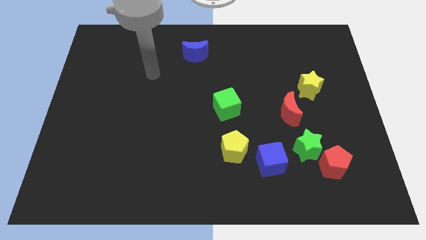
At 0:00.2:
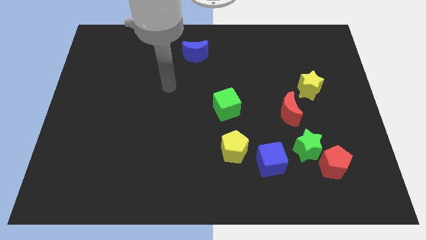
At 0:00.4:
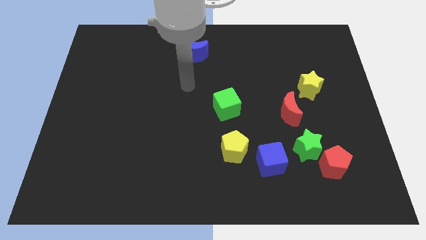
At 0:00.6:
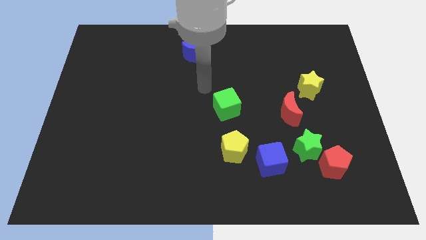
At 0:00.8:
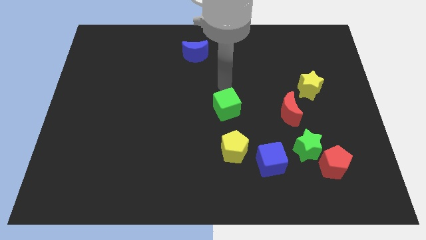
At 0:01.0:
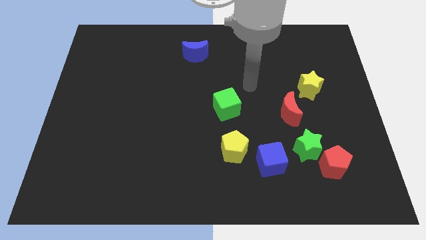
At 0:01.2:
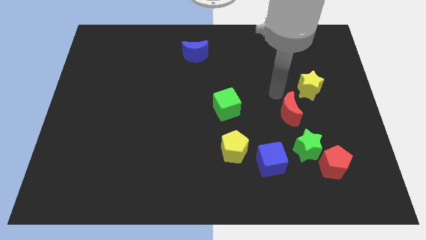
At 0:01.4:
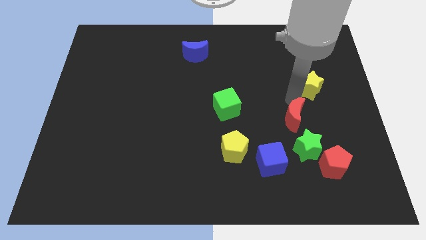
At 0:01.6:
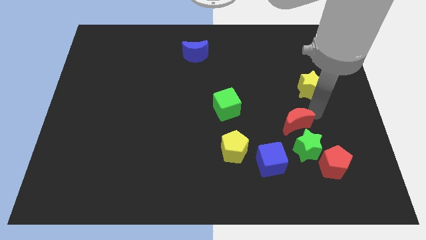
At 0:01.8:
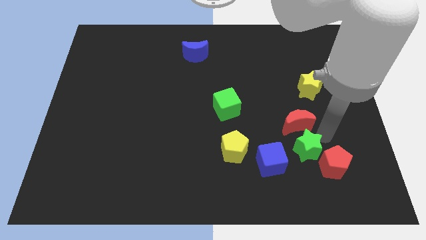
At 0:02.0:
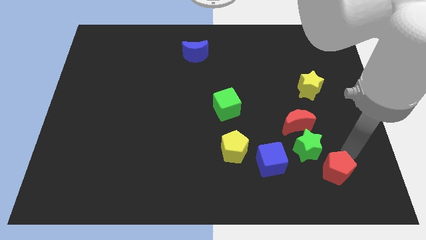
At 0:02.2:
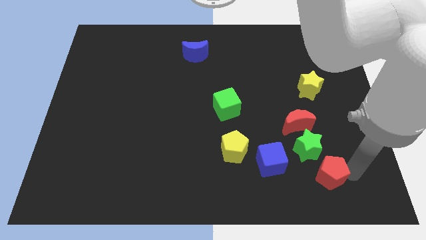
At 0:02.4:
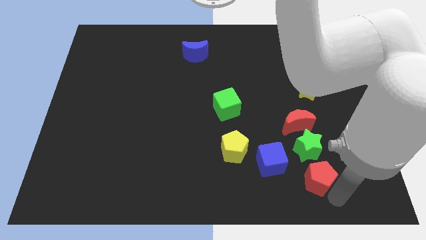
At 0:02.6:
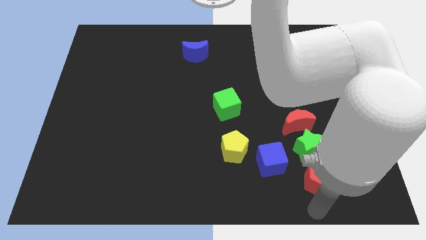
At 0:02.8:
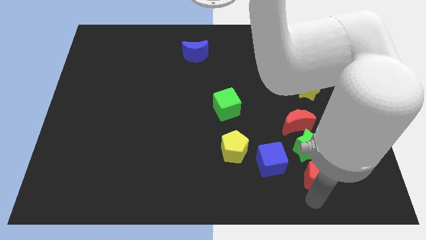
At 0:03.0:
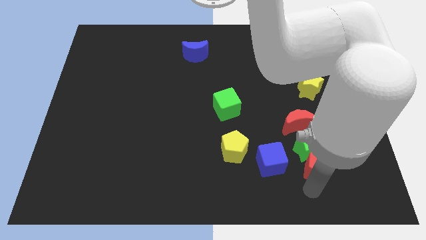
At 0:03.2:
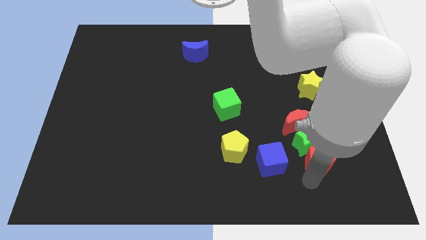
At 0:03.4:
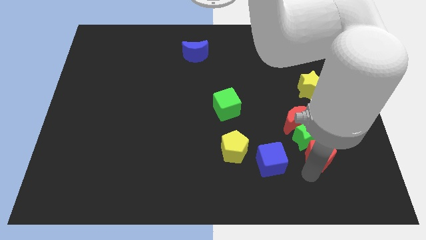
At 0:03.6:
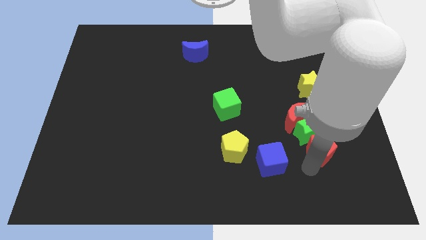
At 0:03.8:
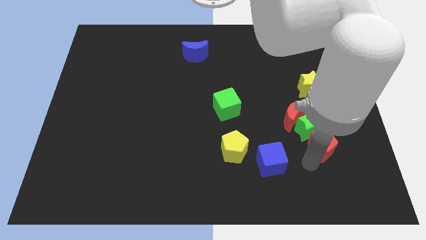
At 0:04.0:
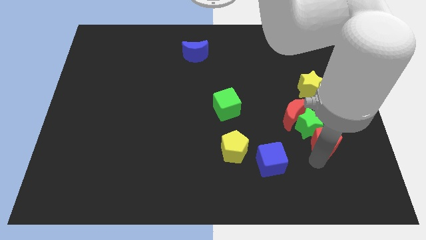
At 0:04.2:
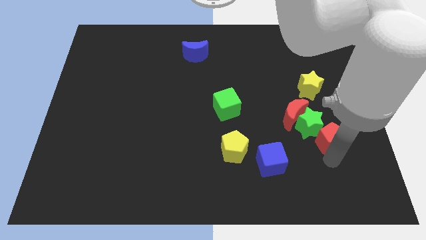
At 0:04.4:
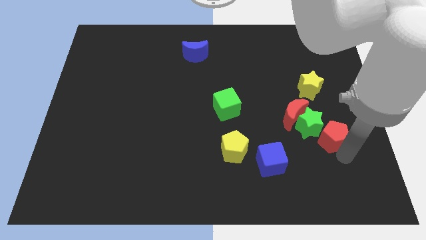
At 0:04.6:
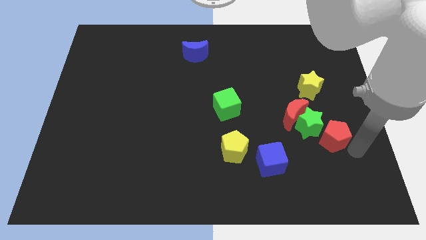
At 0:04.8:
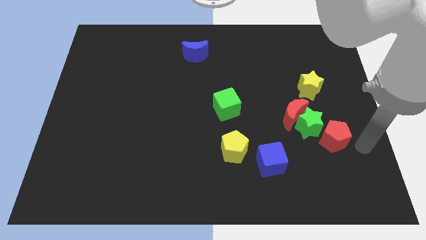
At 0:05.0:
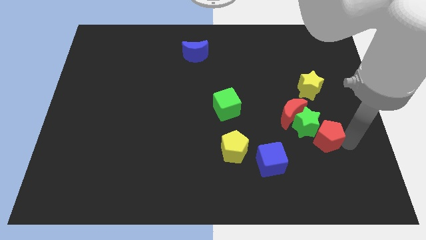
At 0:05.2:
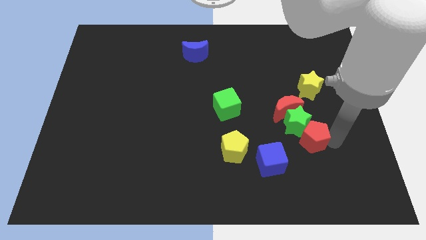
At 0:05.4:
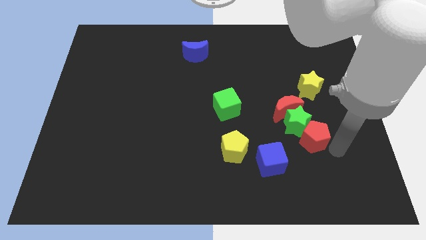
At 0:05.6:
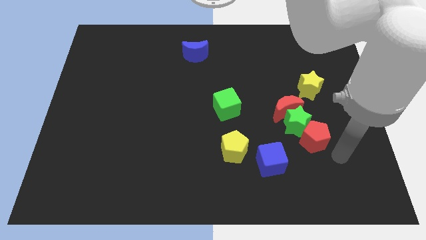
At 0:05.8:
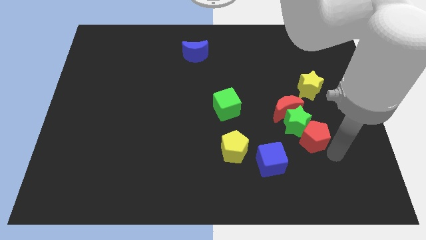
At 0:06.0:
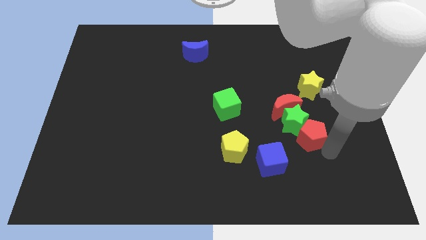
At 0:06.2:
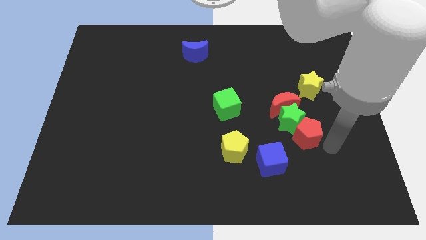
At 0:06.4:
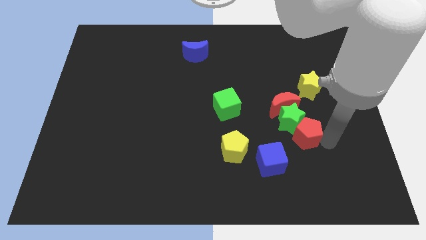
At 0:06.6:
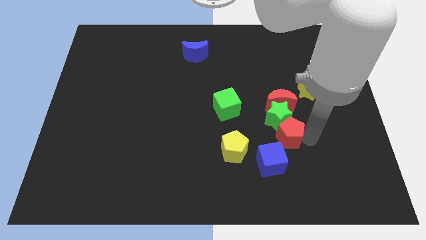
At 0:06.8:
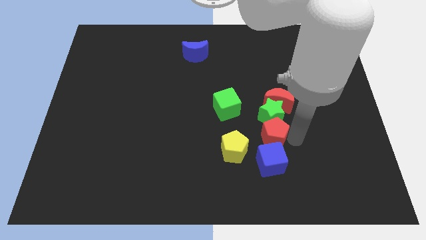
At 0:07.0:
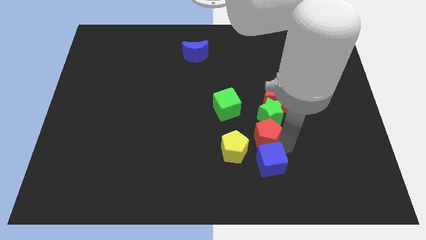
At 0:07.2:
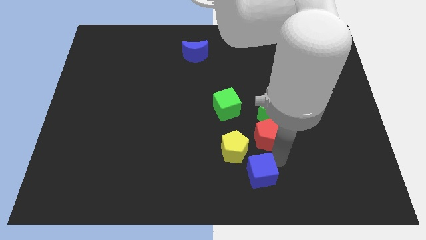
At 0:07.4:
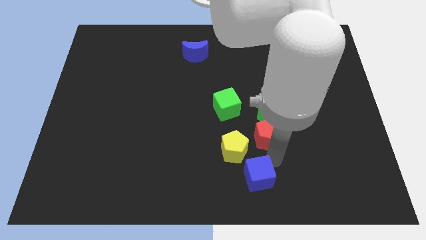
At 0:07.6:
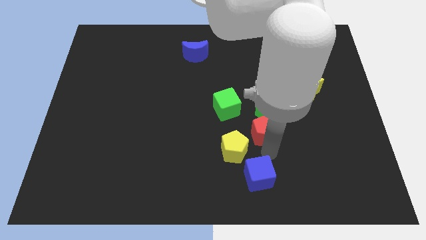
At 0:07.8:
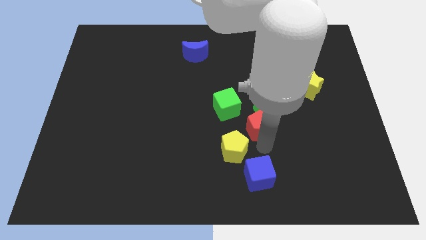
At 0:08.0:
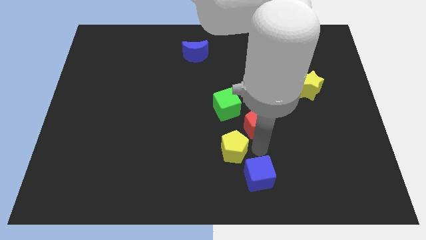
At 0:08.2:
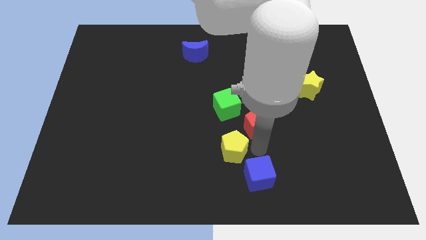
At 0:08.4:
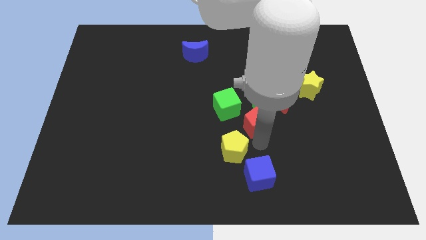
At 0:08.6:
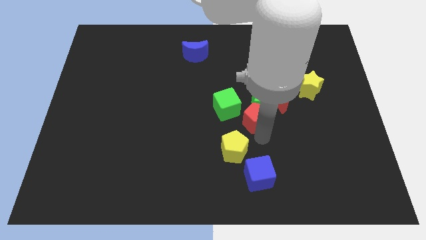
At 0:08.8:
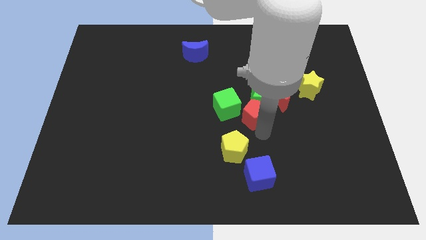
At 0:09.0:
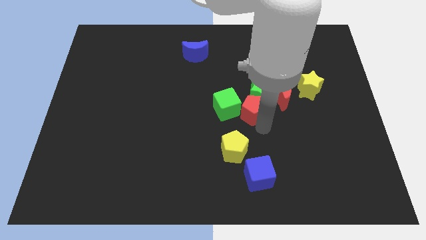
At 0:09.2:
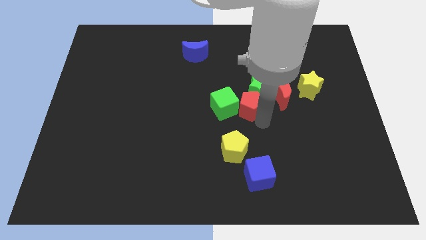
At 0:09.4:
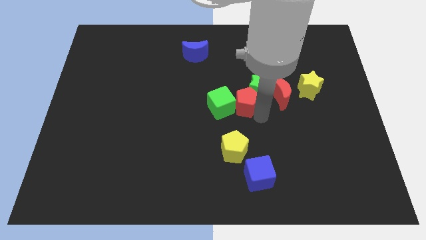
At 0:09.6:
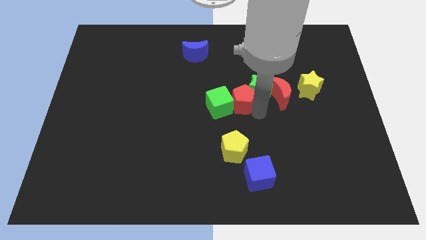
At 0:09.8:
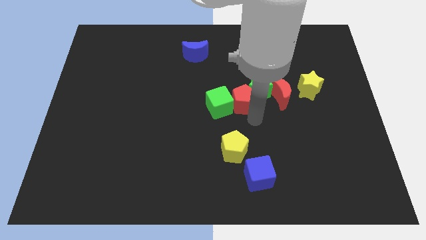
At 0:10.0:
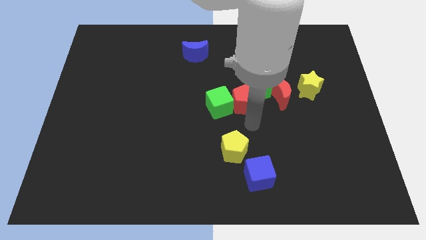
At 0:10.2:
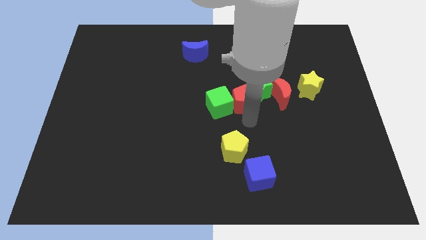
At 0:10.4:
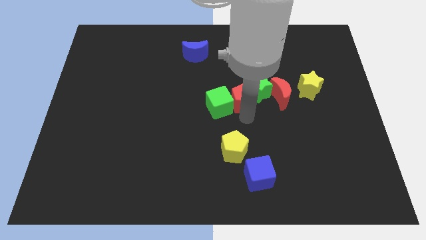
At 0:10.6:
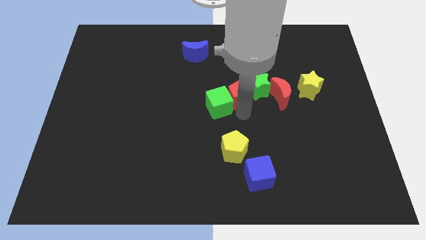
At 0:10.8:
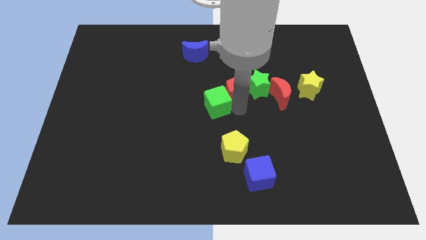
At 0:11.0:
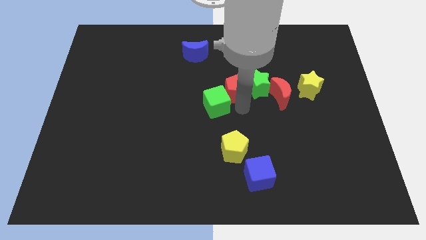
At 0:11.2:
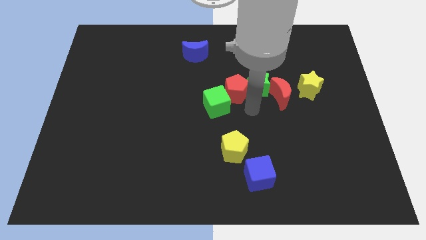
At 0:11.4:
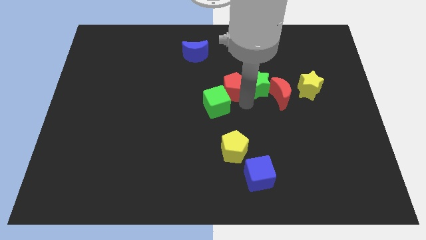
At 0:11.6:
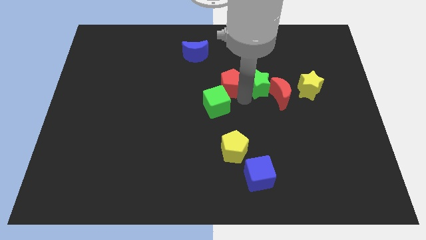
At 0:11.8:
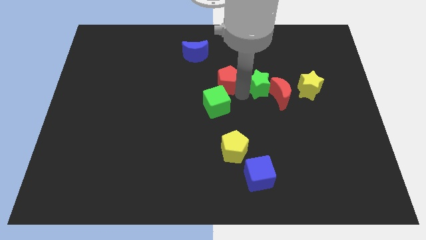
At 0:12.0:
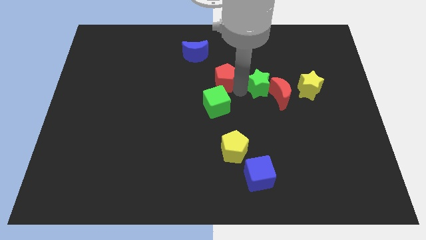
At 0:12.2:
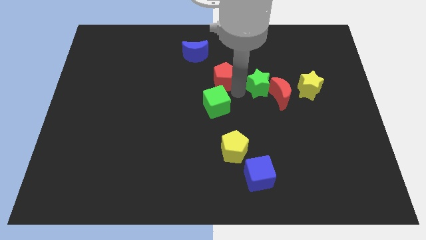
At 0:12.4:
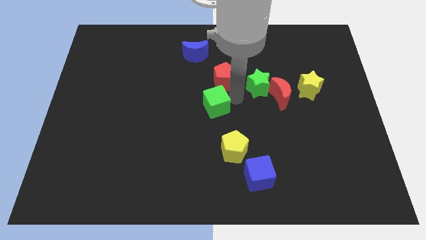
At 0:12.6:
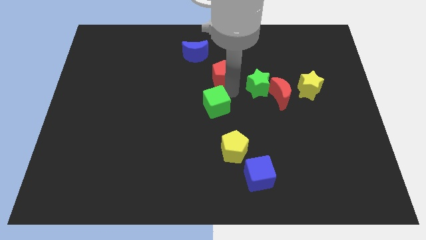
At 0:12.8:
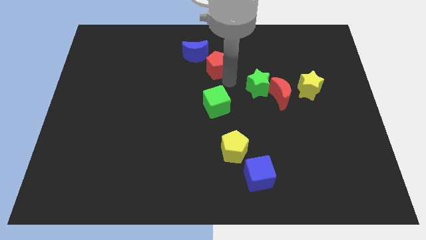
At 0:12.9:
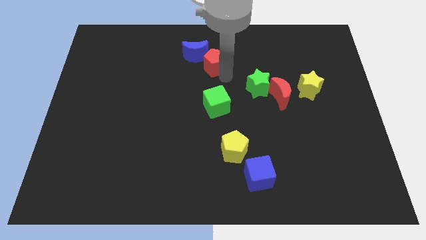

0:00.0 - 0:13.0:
put the red pentagon towards the blue moon
